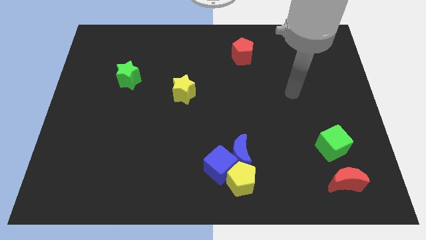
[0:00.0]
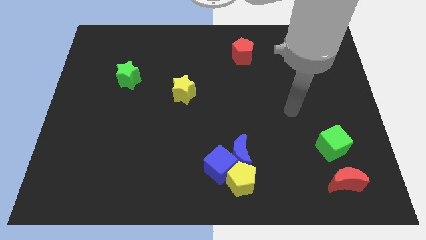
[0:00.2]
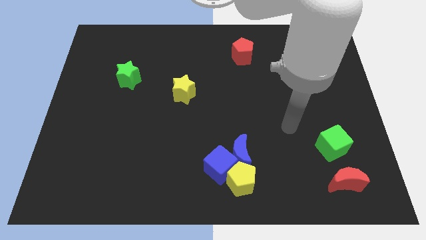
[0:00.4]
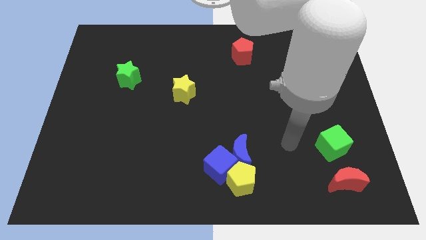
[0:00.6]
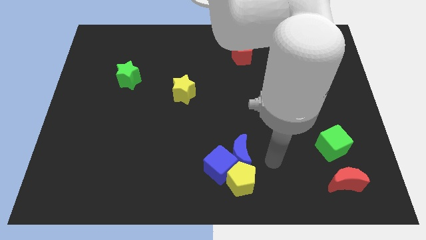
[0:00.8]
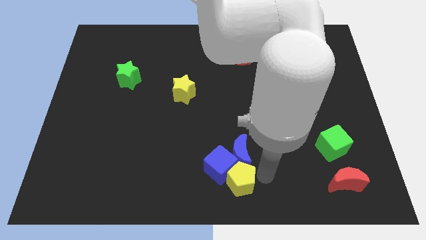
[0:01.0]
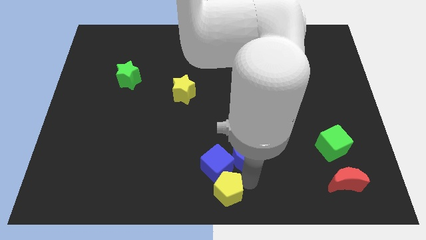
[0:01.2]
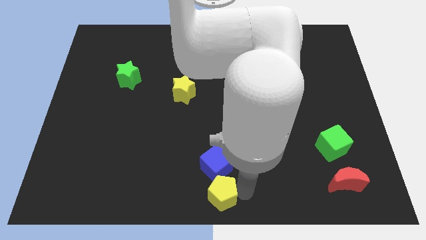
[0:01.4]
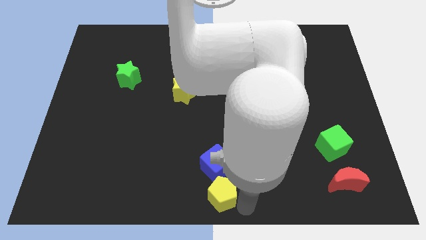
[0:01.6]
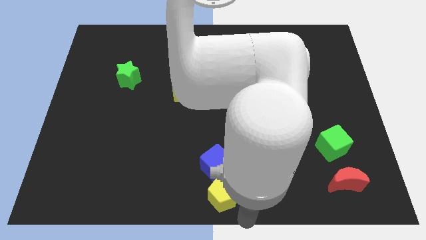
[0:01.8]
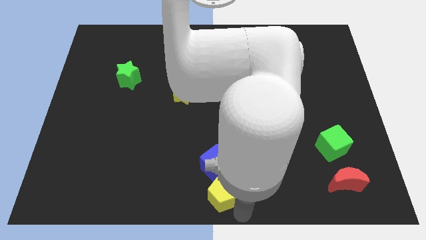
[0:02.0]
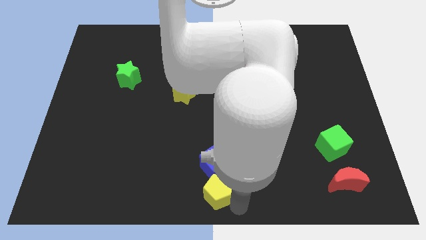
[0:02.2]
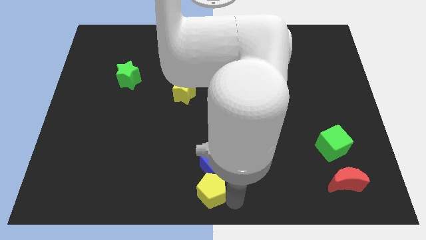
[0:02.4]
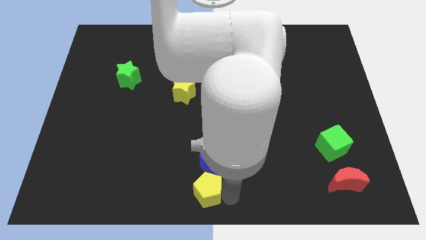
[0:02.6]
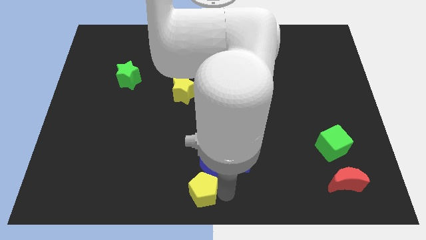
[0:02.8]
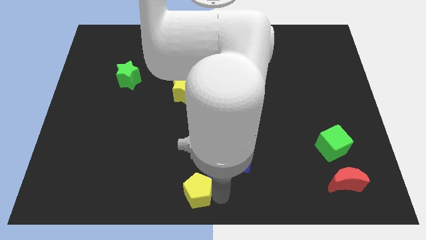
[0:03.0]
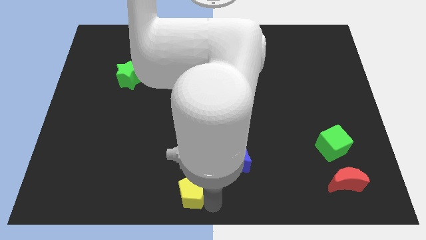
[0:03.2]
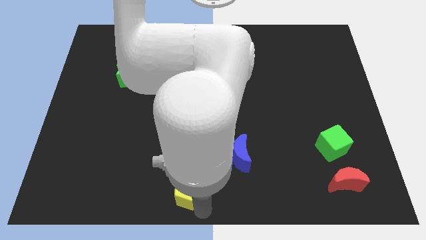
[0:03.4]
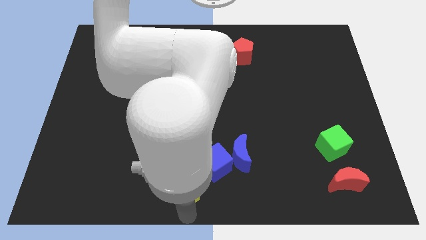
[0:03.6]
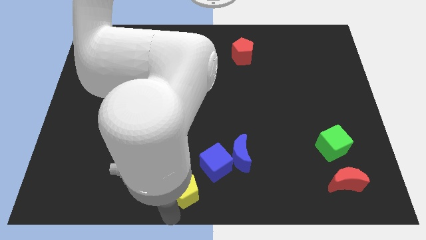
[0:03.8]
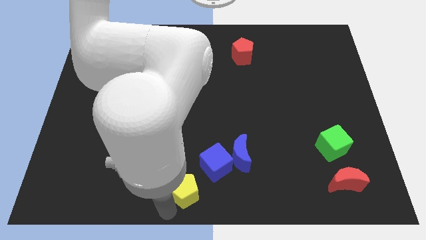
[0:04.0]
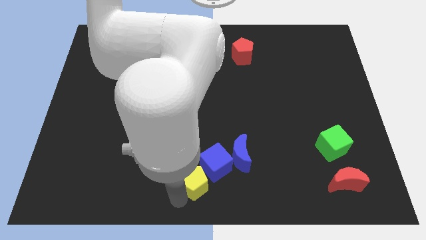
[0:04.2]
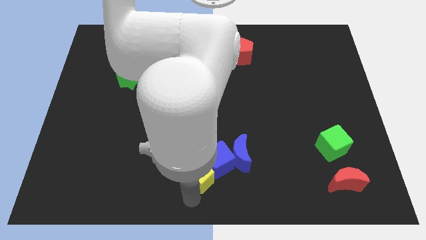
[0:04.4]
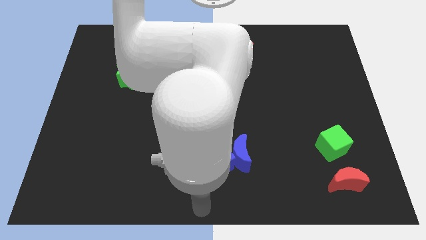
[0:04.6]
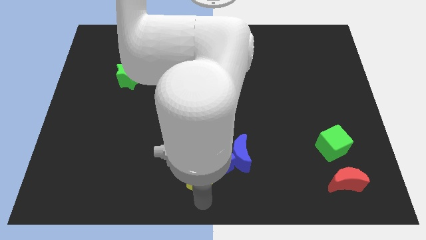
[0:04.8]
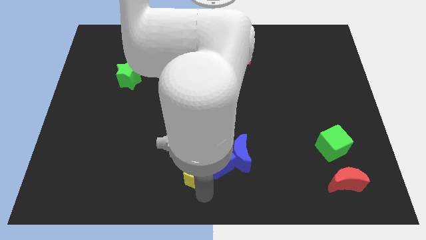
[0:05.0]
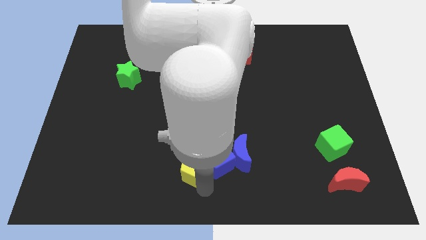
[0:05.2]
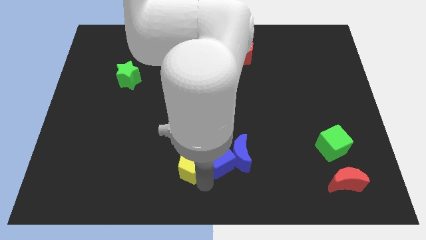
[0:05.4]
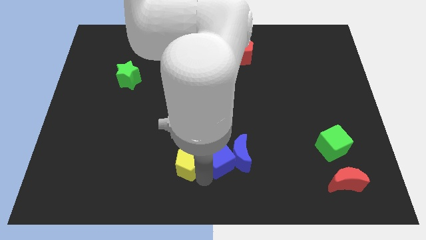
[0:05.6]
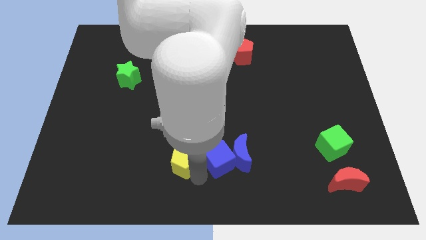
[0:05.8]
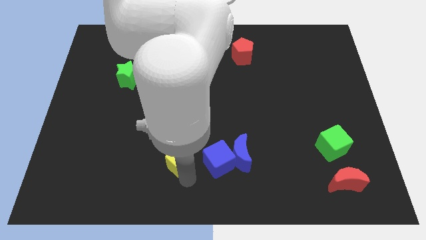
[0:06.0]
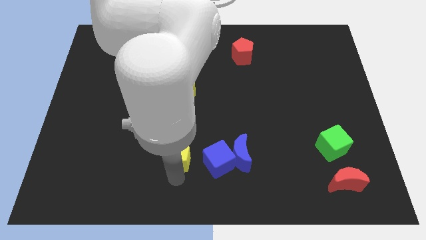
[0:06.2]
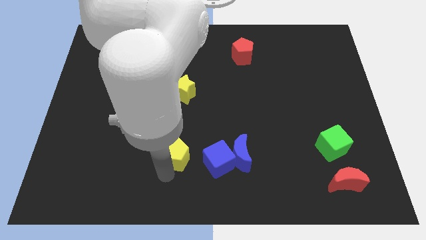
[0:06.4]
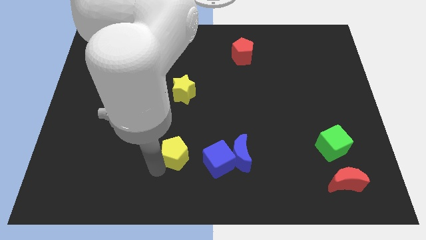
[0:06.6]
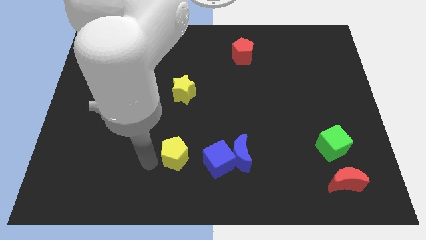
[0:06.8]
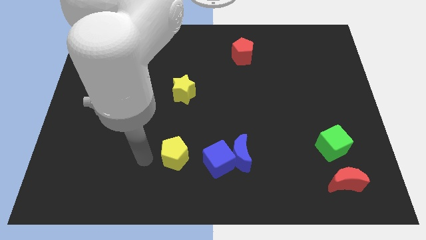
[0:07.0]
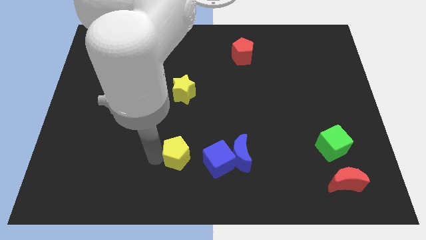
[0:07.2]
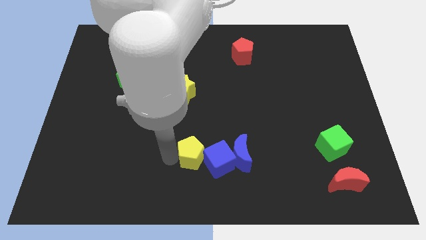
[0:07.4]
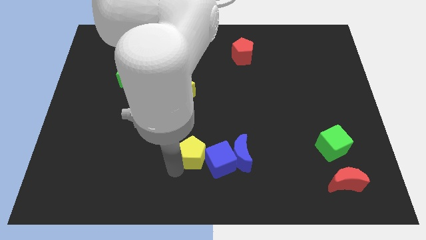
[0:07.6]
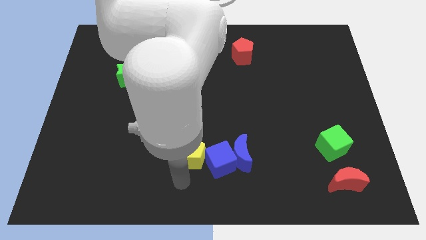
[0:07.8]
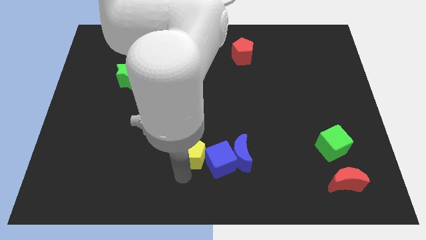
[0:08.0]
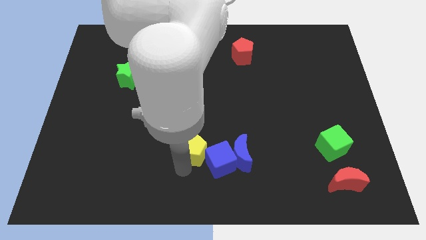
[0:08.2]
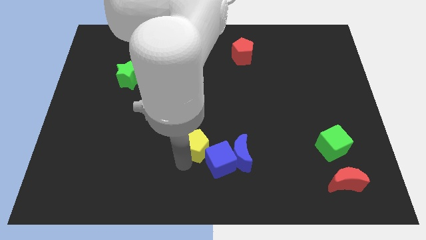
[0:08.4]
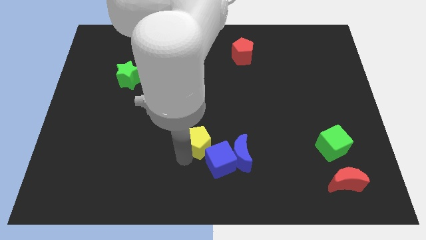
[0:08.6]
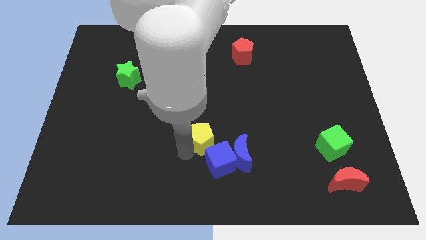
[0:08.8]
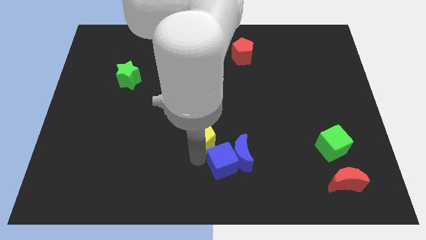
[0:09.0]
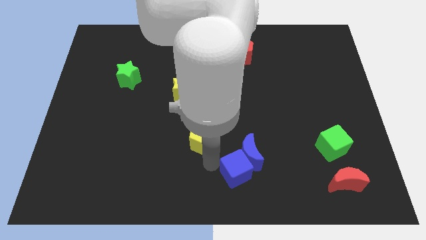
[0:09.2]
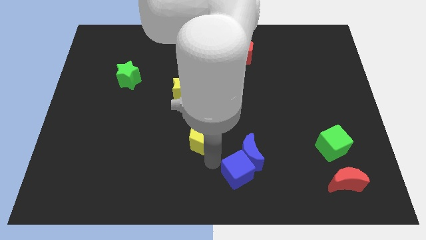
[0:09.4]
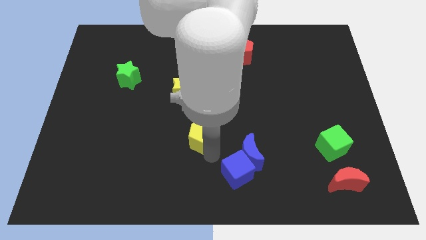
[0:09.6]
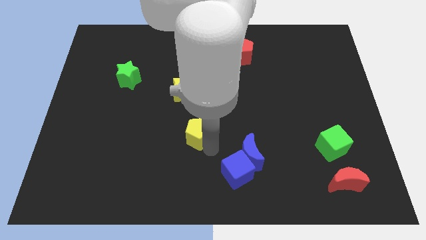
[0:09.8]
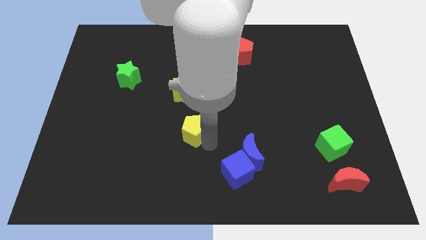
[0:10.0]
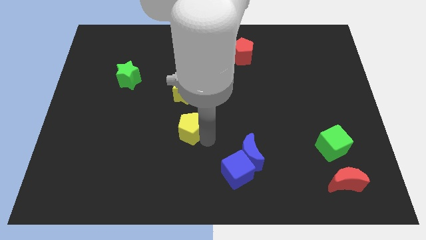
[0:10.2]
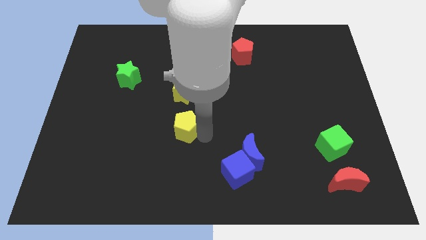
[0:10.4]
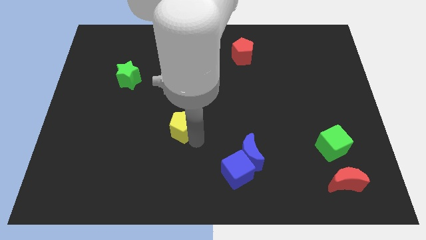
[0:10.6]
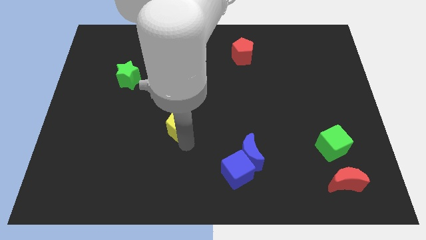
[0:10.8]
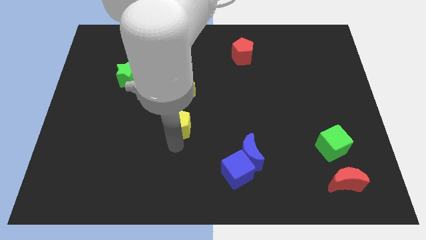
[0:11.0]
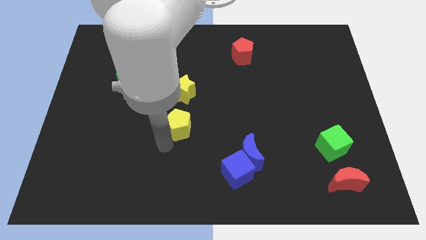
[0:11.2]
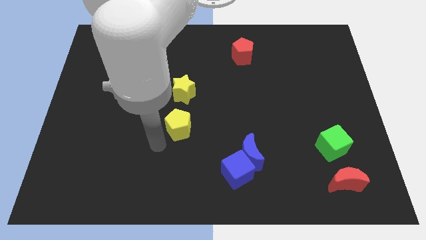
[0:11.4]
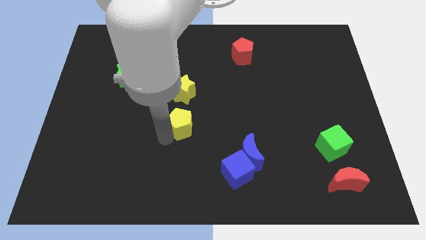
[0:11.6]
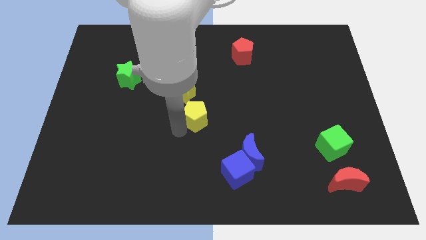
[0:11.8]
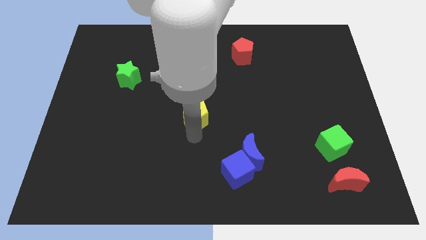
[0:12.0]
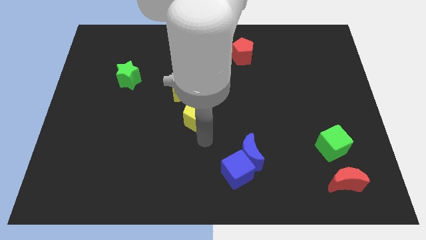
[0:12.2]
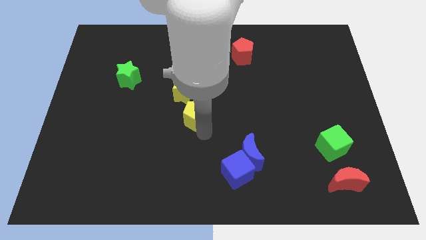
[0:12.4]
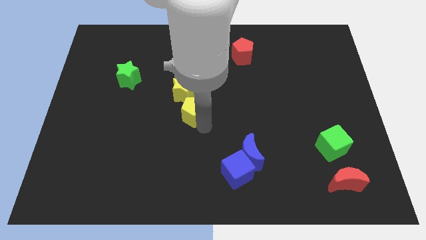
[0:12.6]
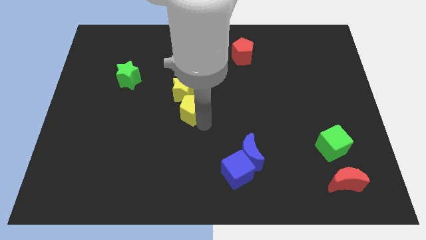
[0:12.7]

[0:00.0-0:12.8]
move the yellow pentagon towards the yellow star
